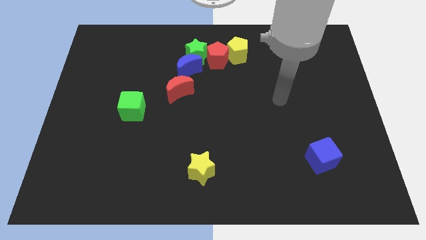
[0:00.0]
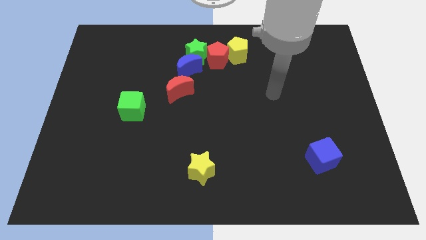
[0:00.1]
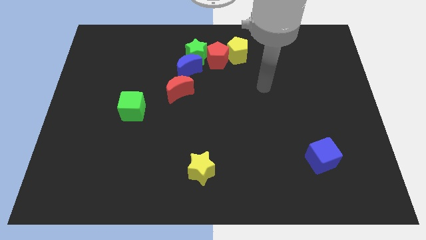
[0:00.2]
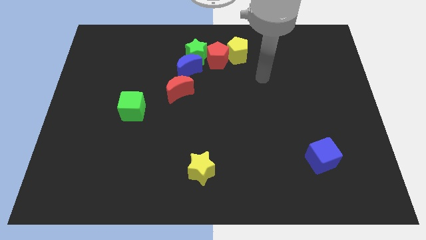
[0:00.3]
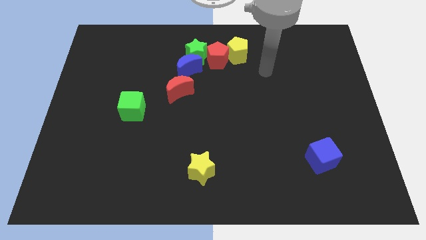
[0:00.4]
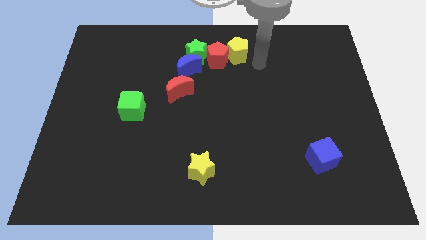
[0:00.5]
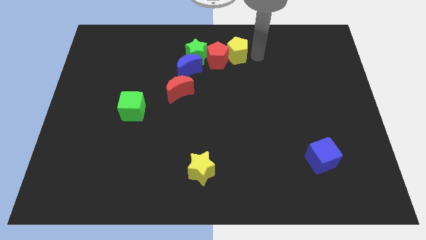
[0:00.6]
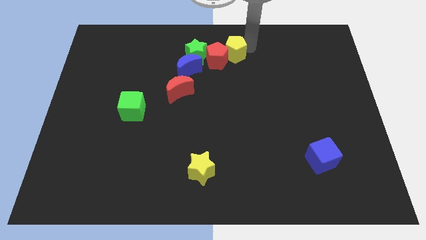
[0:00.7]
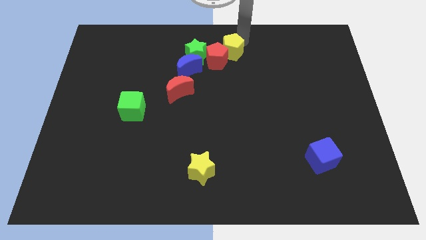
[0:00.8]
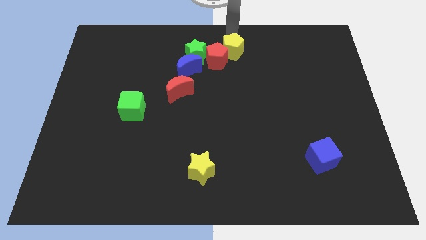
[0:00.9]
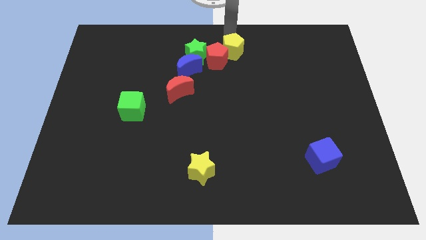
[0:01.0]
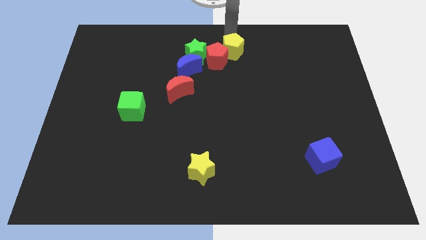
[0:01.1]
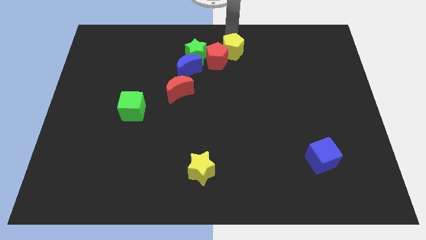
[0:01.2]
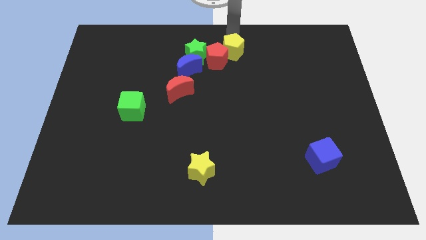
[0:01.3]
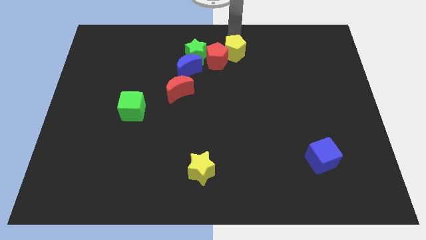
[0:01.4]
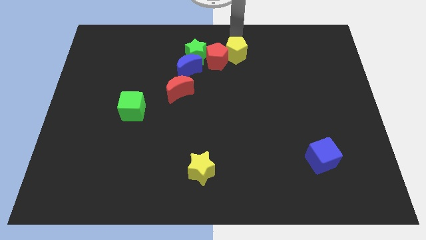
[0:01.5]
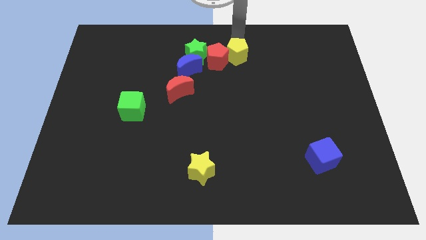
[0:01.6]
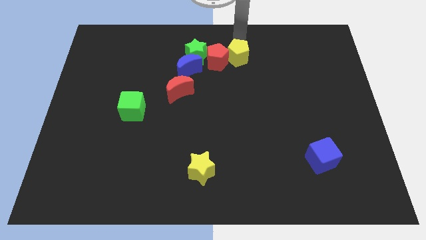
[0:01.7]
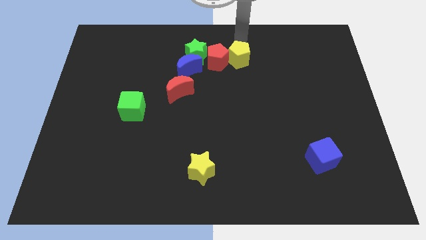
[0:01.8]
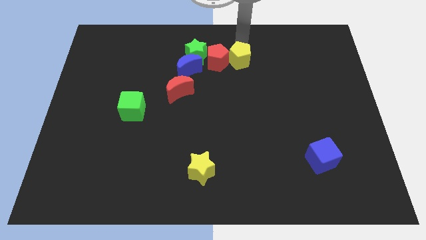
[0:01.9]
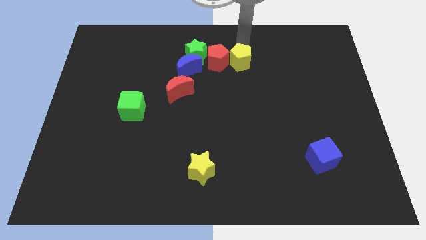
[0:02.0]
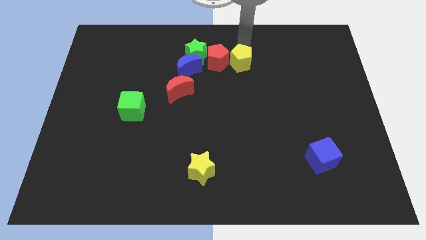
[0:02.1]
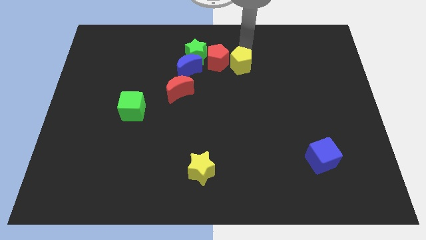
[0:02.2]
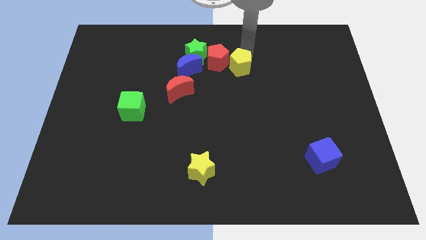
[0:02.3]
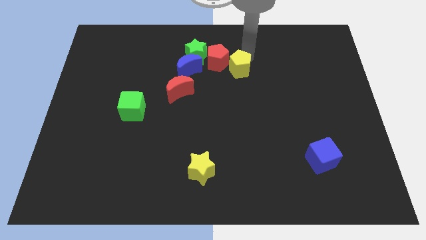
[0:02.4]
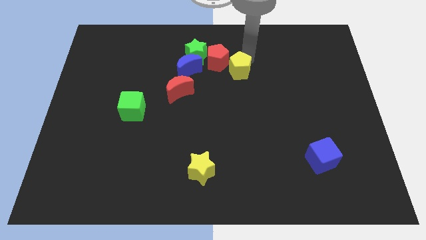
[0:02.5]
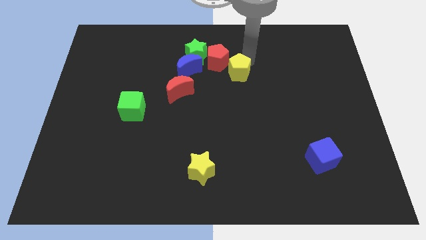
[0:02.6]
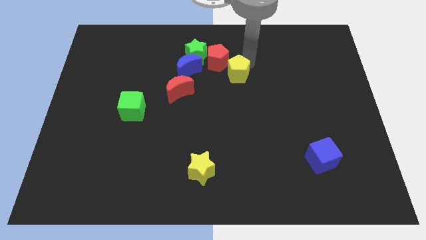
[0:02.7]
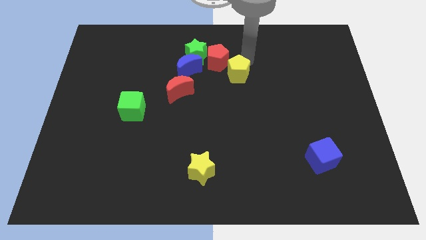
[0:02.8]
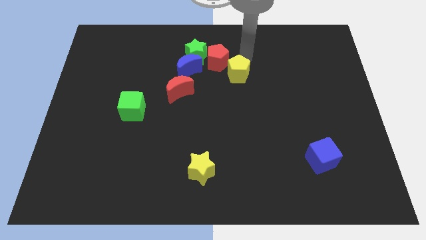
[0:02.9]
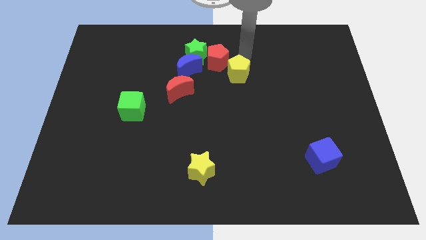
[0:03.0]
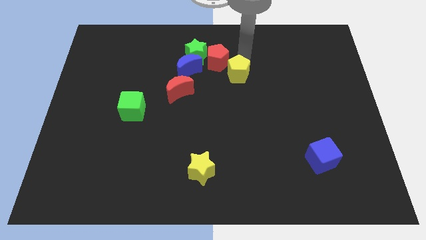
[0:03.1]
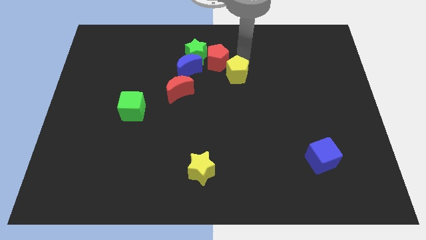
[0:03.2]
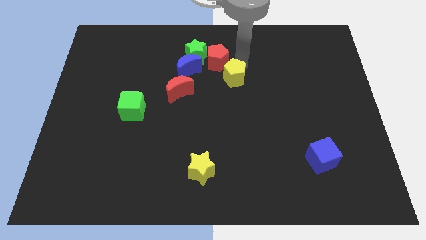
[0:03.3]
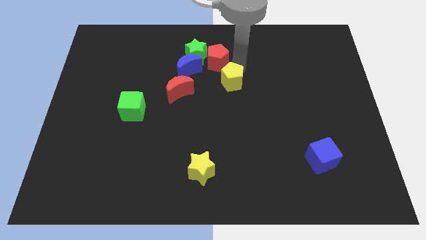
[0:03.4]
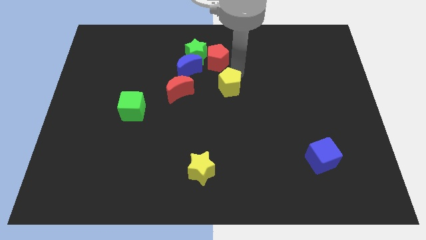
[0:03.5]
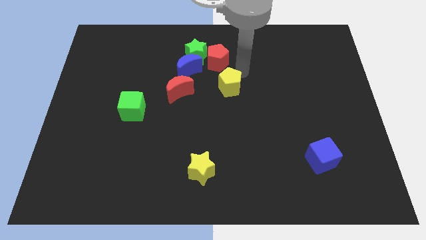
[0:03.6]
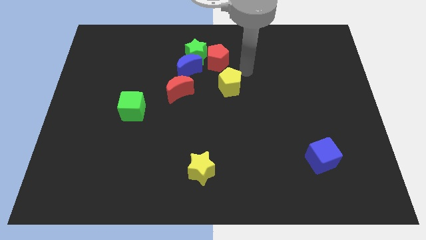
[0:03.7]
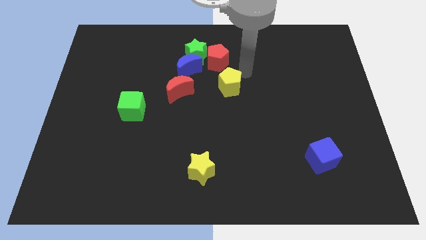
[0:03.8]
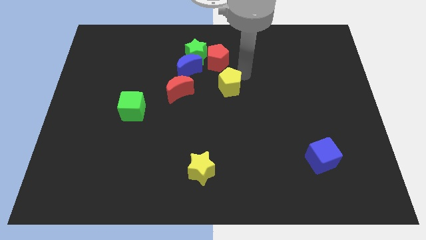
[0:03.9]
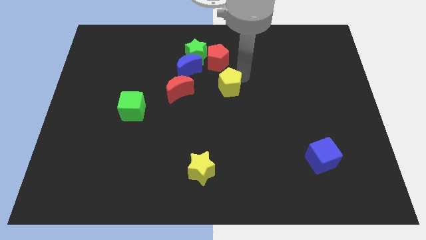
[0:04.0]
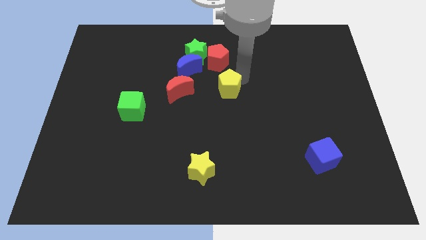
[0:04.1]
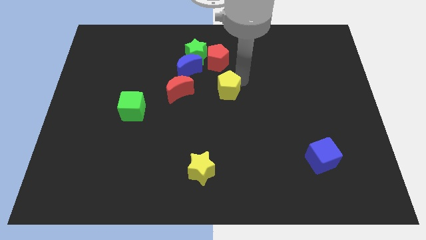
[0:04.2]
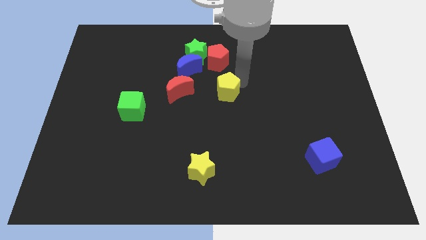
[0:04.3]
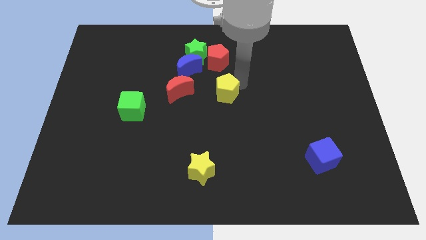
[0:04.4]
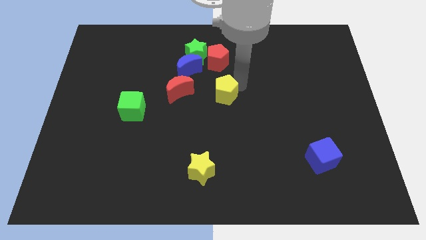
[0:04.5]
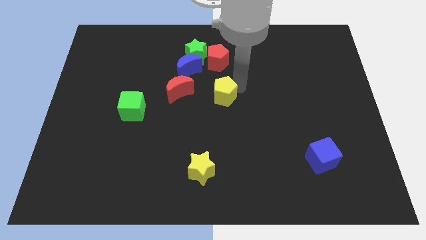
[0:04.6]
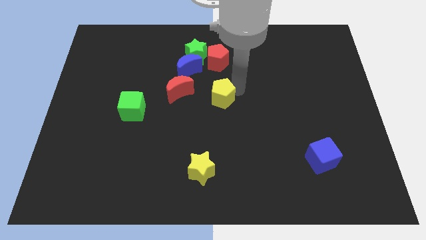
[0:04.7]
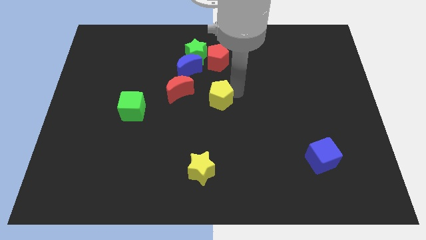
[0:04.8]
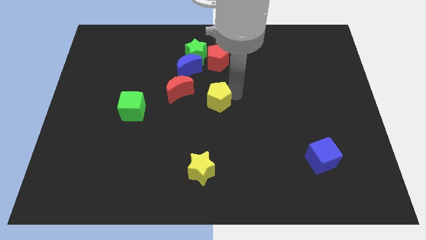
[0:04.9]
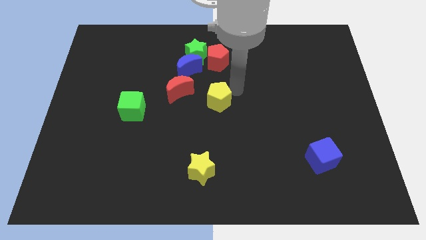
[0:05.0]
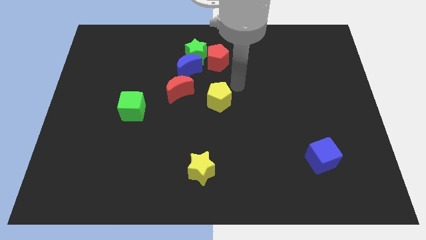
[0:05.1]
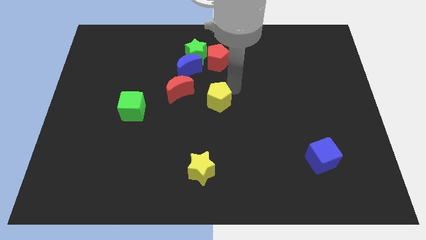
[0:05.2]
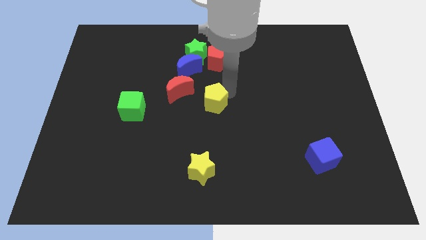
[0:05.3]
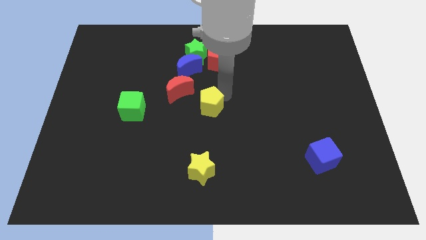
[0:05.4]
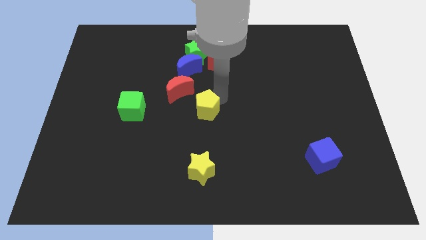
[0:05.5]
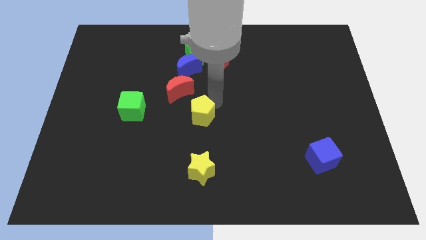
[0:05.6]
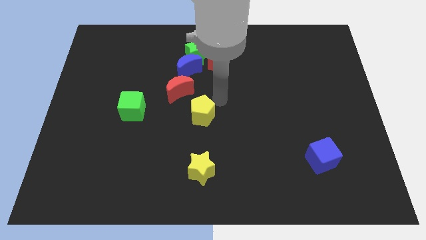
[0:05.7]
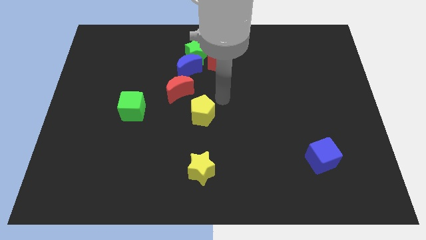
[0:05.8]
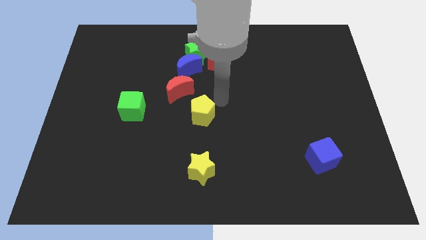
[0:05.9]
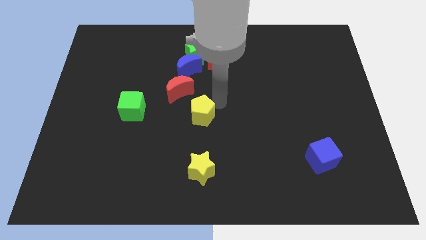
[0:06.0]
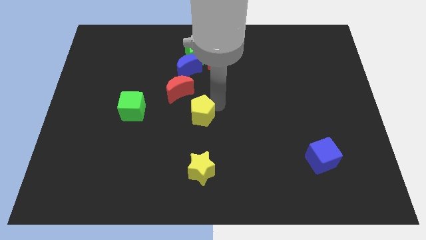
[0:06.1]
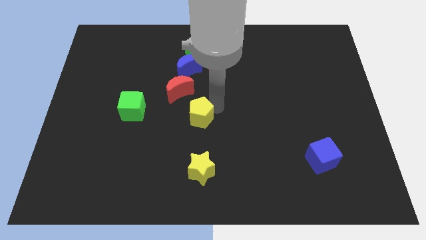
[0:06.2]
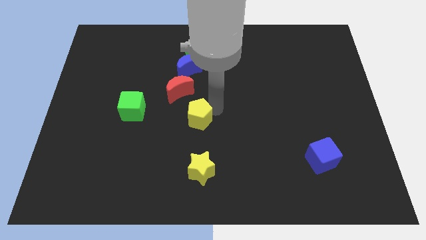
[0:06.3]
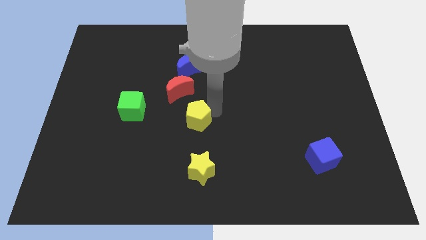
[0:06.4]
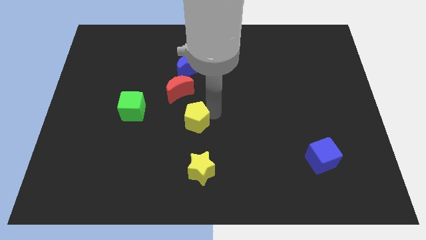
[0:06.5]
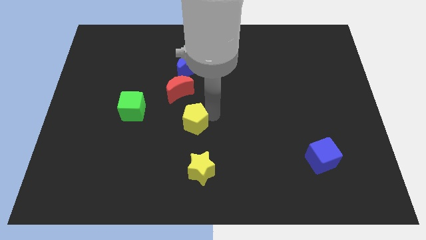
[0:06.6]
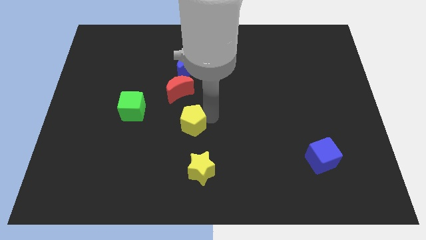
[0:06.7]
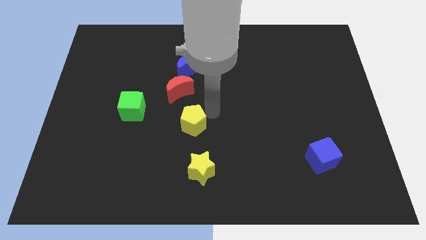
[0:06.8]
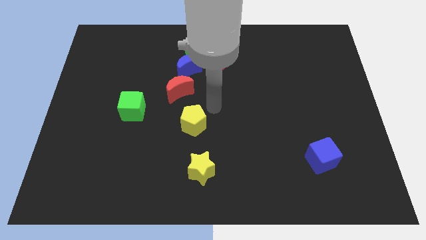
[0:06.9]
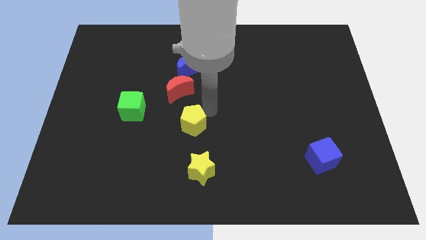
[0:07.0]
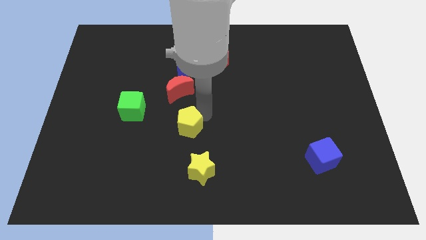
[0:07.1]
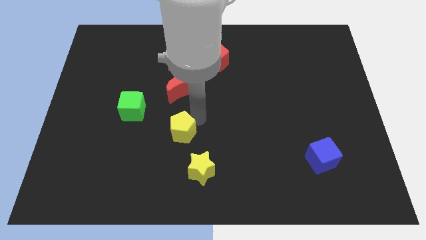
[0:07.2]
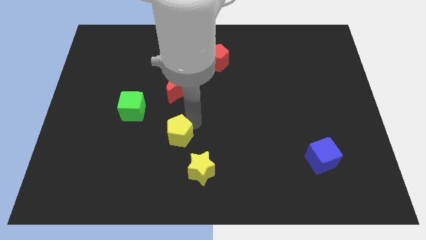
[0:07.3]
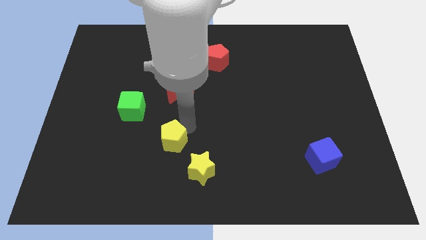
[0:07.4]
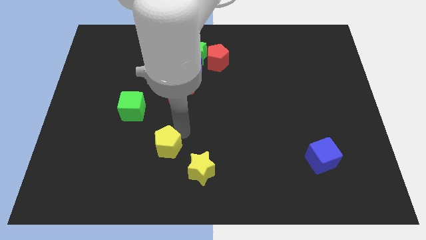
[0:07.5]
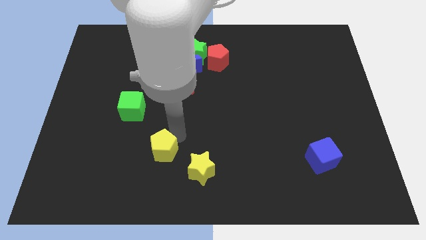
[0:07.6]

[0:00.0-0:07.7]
put the yellow pentagon to the left of the yellow star
